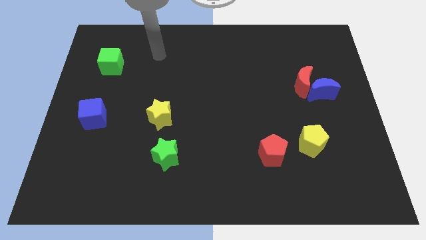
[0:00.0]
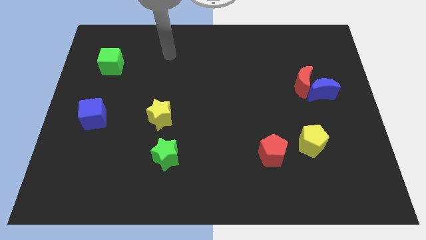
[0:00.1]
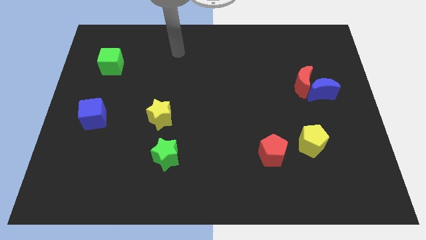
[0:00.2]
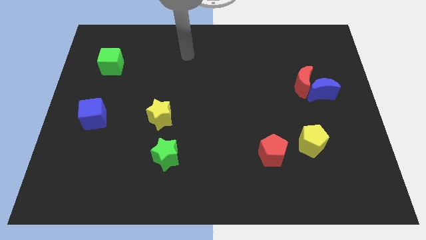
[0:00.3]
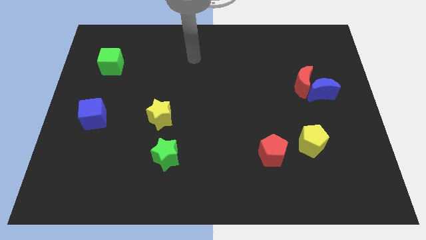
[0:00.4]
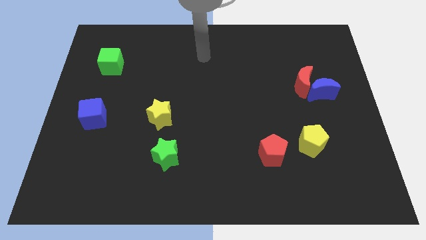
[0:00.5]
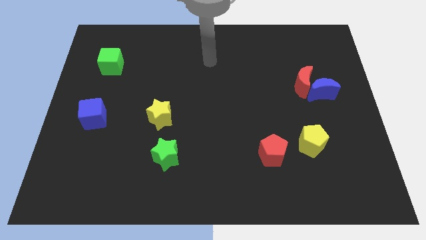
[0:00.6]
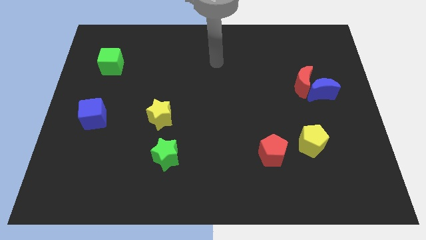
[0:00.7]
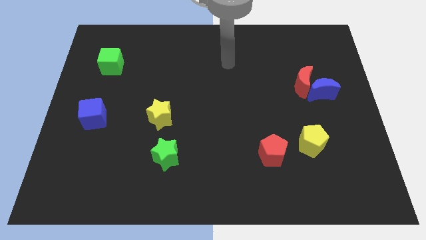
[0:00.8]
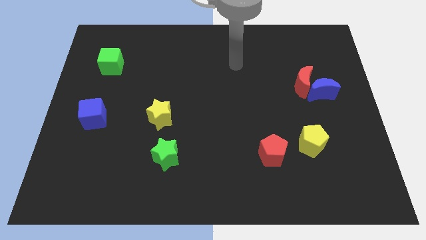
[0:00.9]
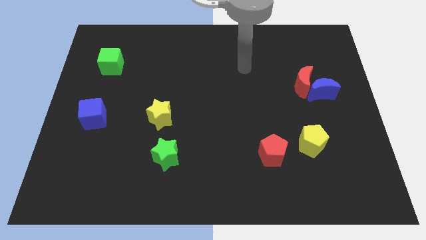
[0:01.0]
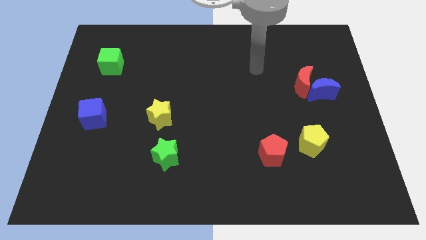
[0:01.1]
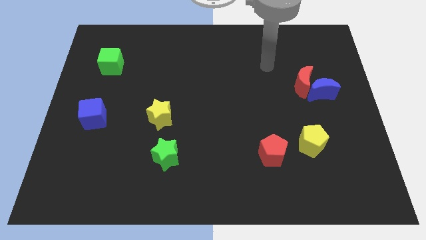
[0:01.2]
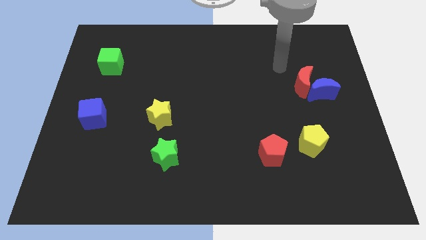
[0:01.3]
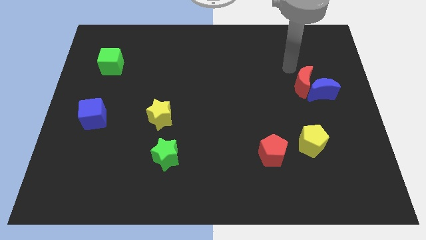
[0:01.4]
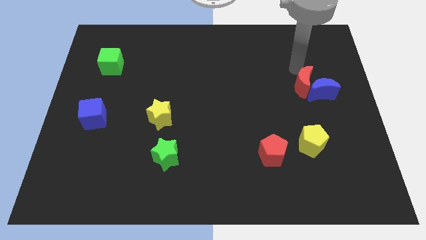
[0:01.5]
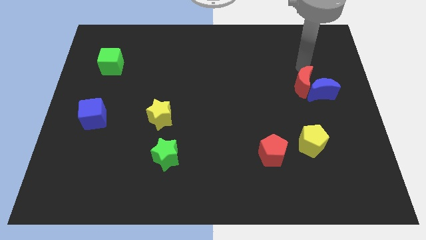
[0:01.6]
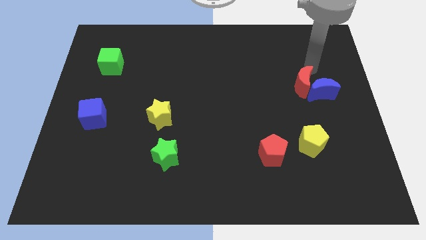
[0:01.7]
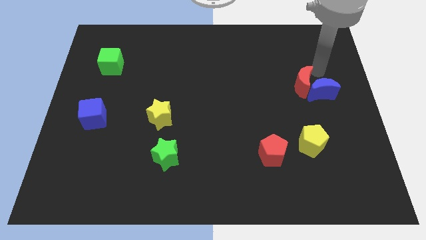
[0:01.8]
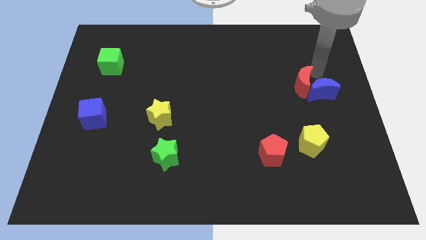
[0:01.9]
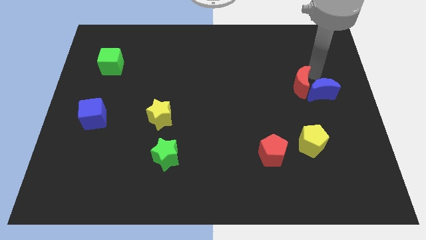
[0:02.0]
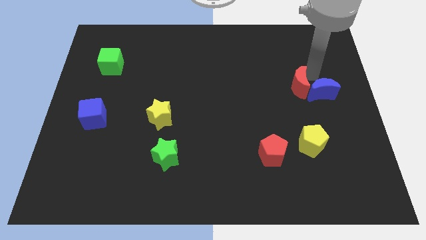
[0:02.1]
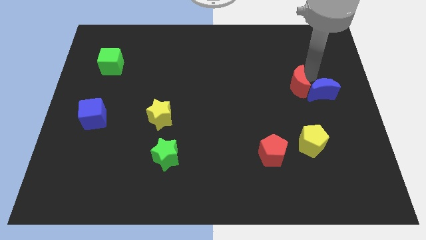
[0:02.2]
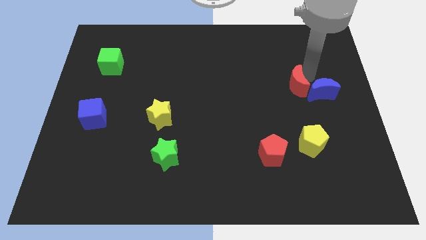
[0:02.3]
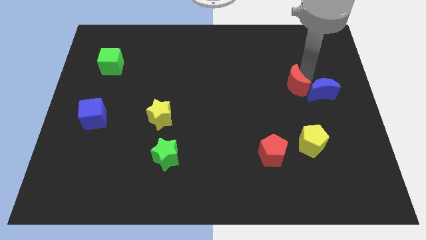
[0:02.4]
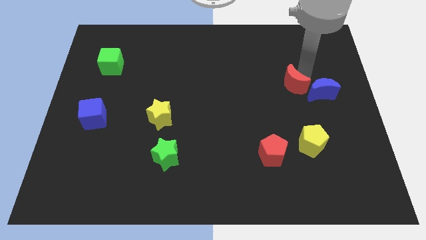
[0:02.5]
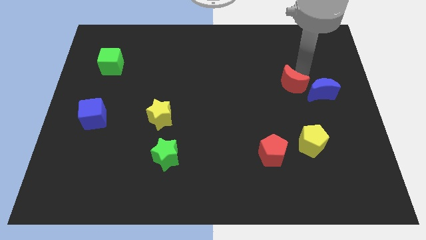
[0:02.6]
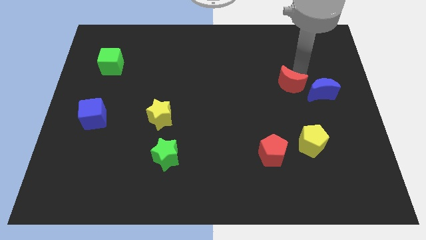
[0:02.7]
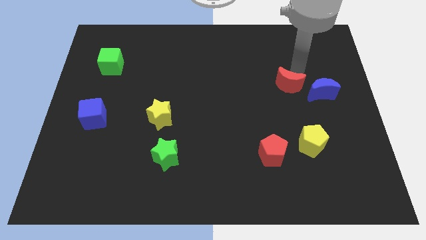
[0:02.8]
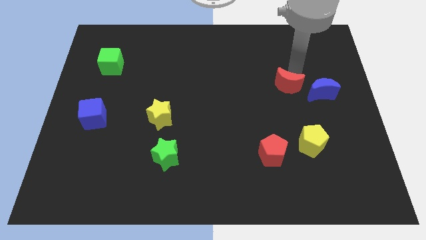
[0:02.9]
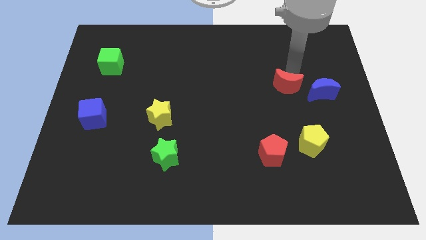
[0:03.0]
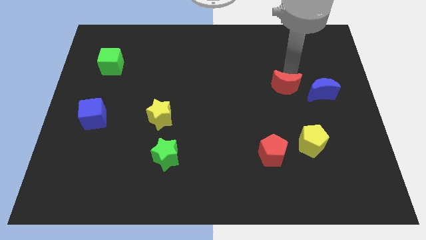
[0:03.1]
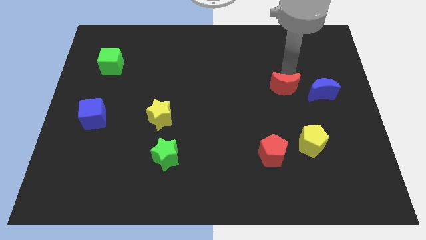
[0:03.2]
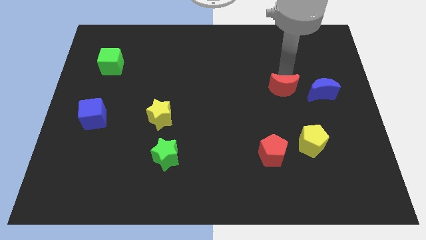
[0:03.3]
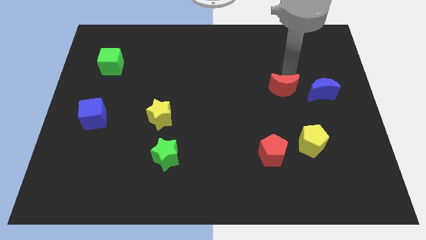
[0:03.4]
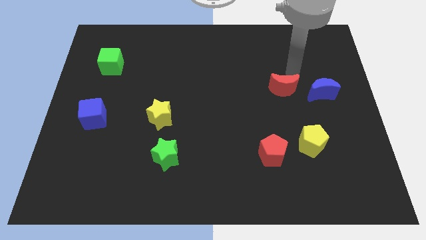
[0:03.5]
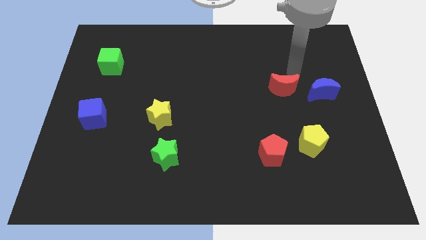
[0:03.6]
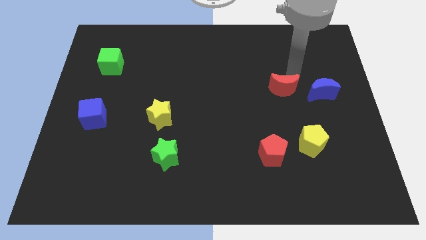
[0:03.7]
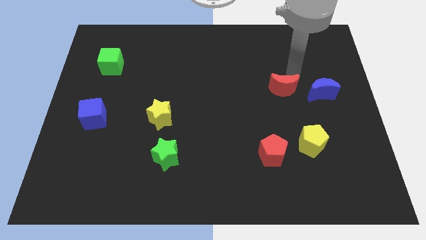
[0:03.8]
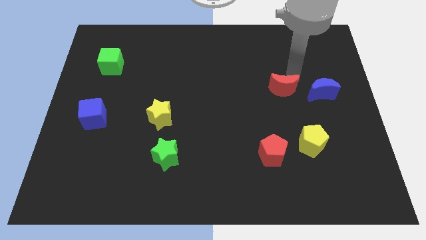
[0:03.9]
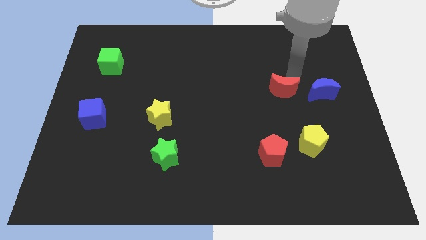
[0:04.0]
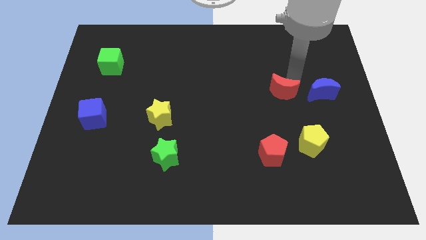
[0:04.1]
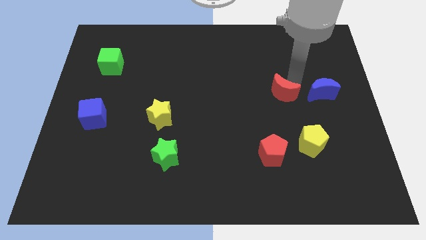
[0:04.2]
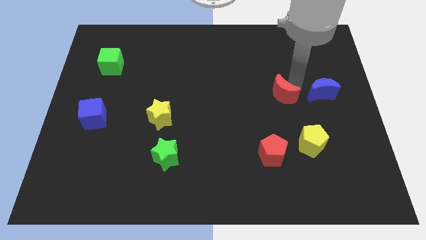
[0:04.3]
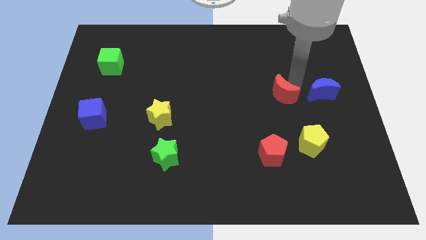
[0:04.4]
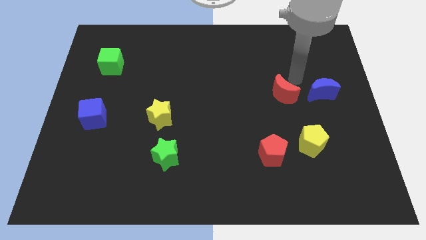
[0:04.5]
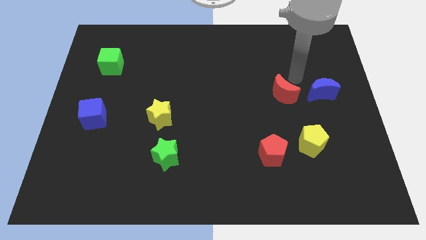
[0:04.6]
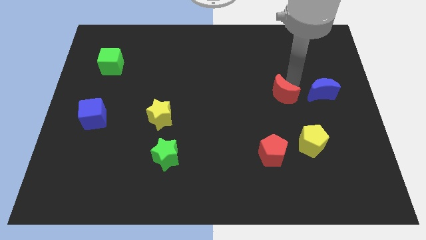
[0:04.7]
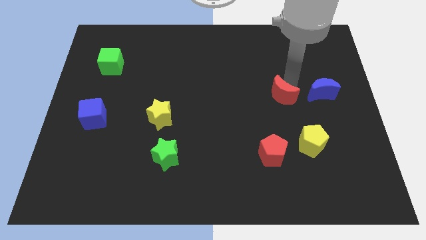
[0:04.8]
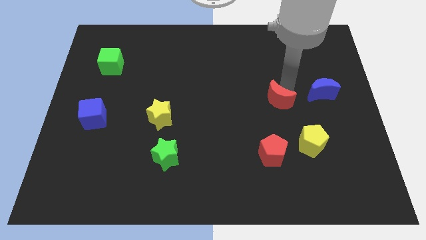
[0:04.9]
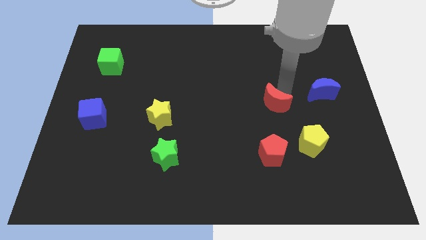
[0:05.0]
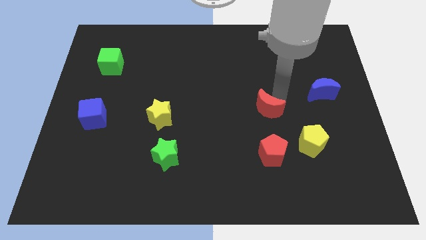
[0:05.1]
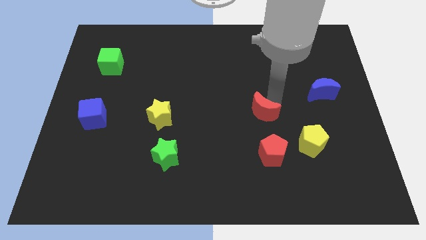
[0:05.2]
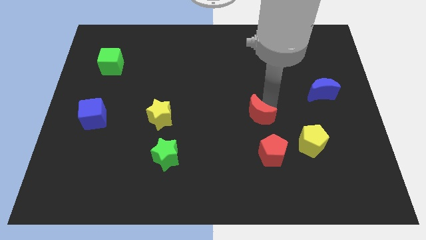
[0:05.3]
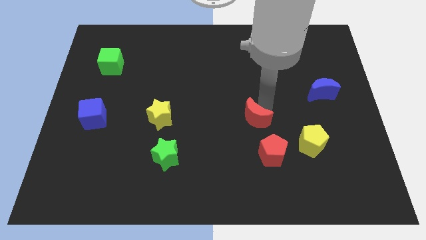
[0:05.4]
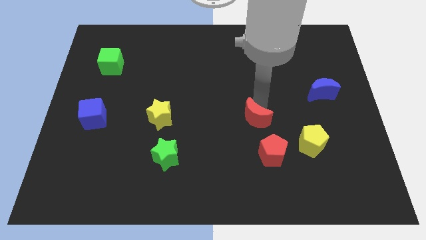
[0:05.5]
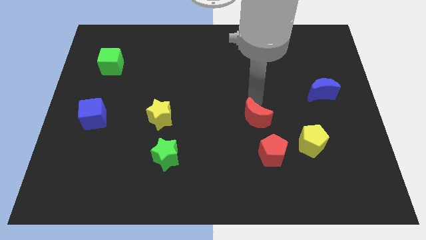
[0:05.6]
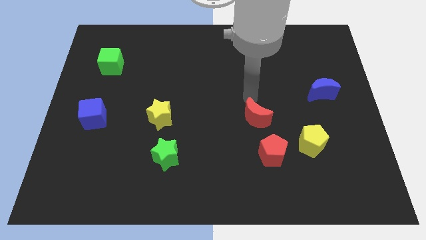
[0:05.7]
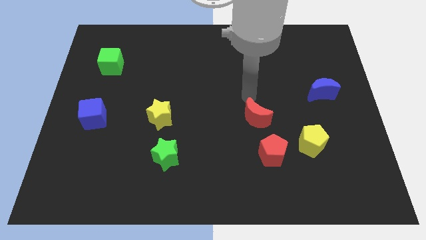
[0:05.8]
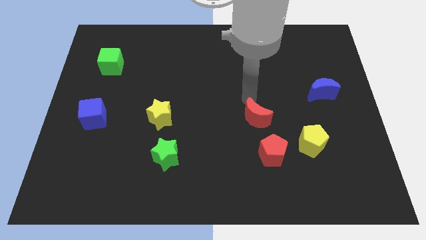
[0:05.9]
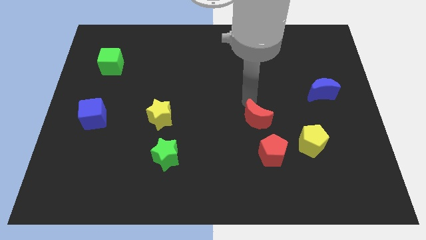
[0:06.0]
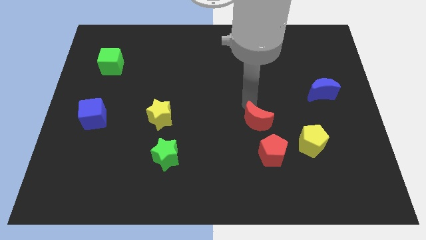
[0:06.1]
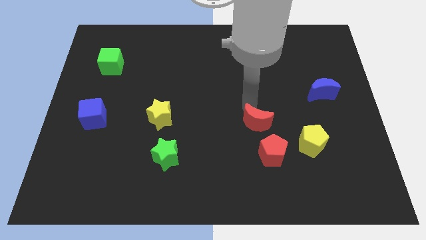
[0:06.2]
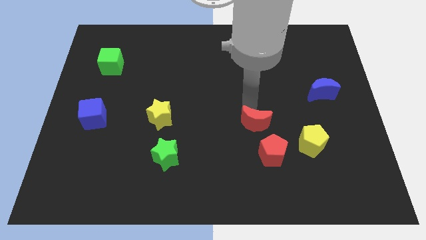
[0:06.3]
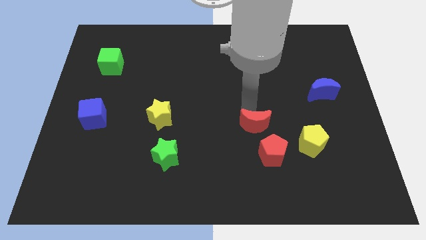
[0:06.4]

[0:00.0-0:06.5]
move the red moon to the left of the yellow pentagon

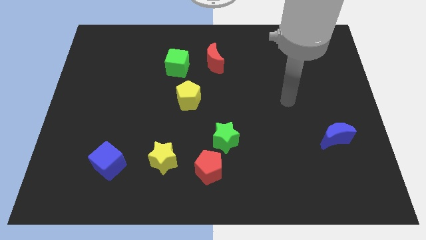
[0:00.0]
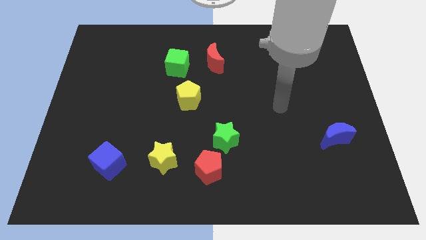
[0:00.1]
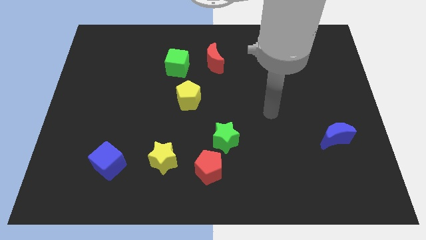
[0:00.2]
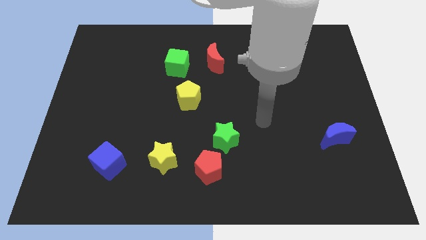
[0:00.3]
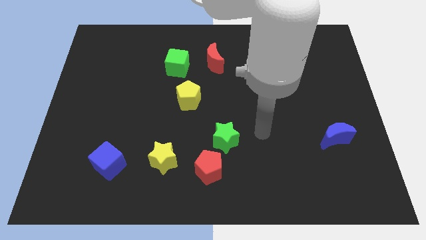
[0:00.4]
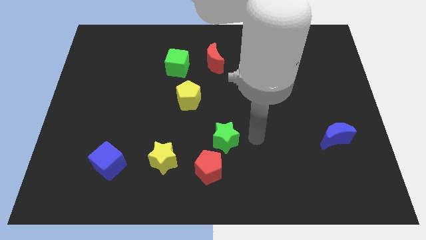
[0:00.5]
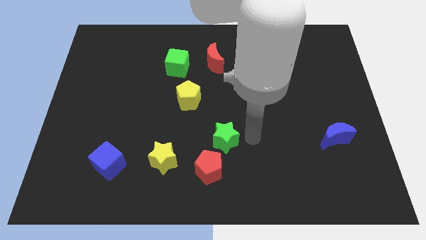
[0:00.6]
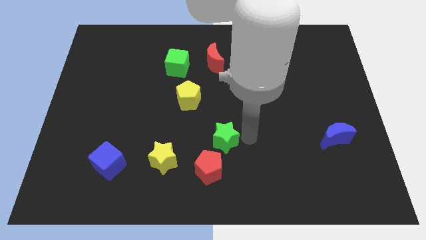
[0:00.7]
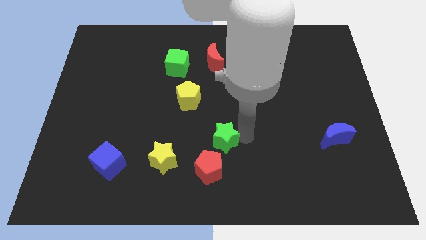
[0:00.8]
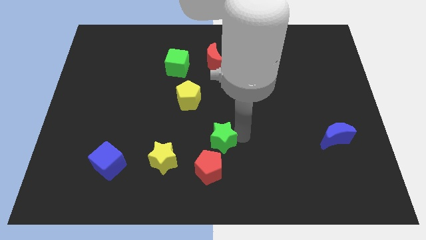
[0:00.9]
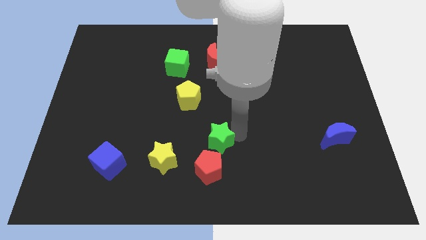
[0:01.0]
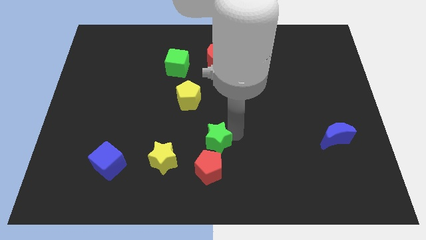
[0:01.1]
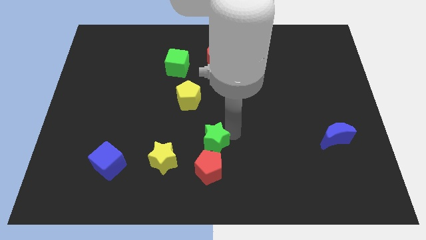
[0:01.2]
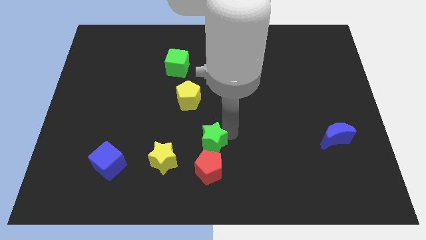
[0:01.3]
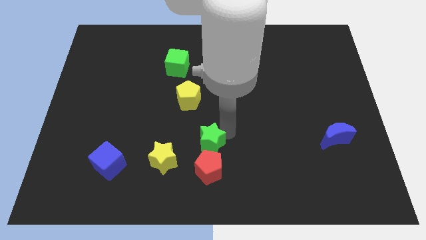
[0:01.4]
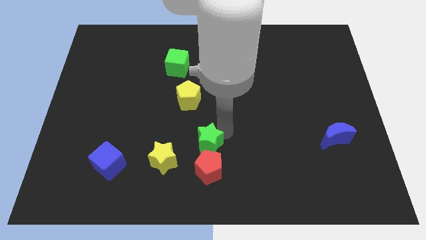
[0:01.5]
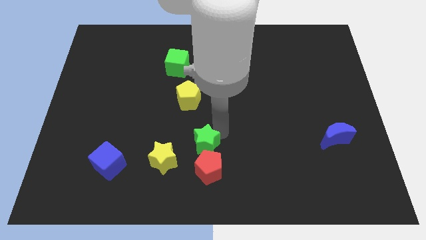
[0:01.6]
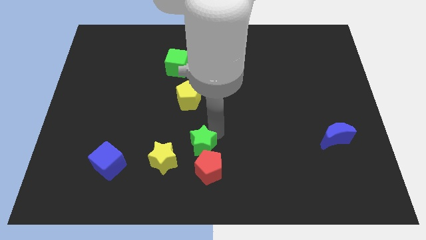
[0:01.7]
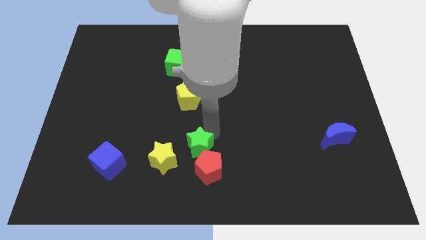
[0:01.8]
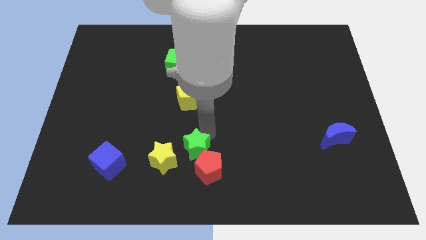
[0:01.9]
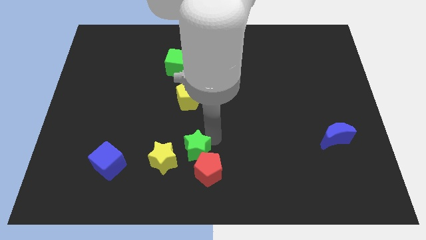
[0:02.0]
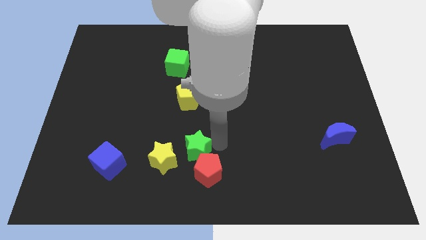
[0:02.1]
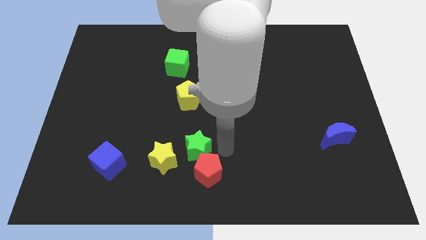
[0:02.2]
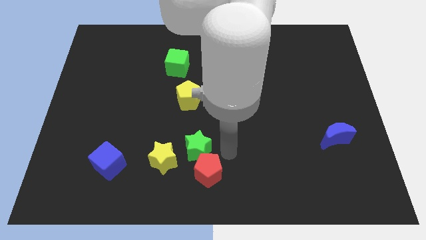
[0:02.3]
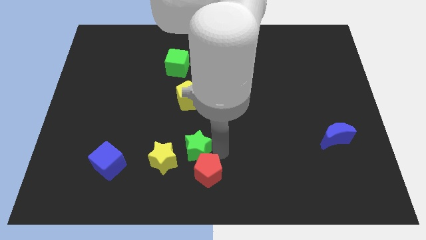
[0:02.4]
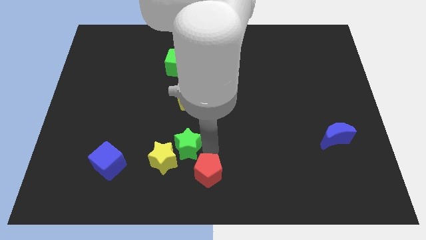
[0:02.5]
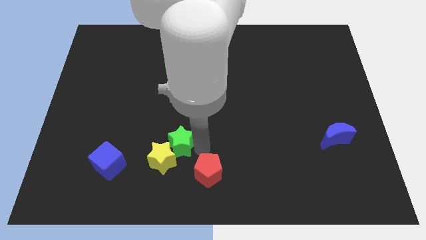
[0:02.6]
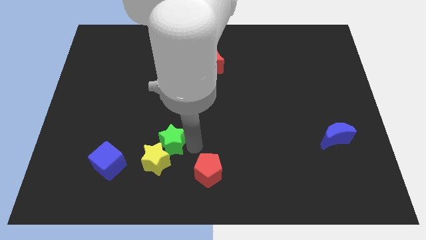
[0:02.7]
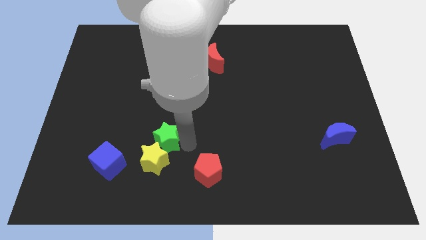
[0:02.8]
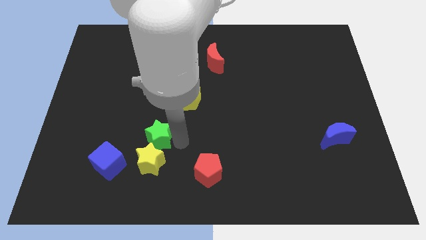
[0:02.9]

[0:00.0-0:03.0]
put the green star to the top right of the blue cube
